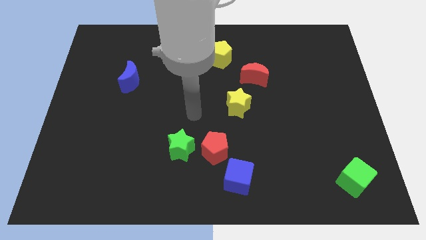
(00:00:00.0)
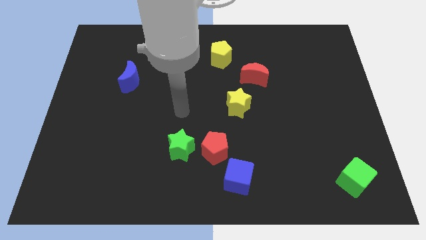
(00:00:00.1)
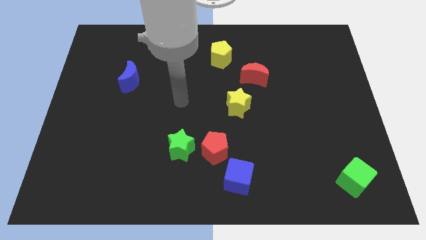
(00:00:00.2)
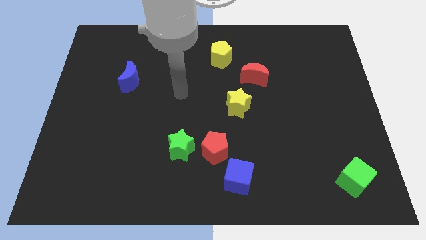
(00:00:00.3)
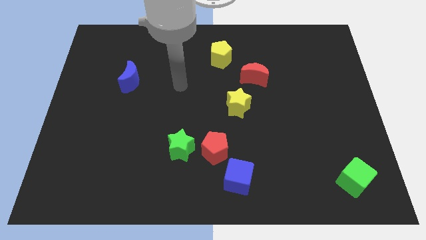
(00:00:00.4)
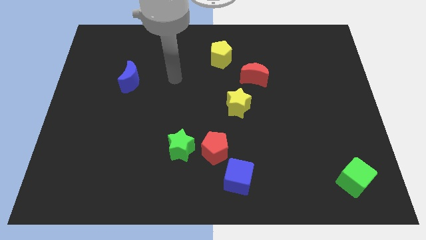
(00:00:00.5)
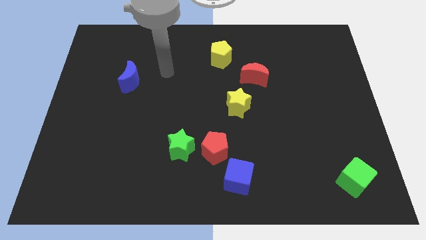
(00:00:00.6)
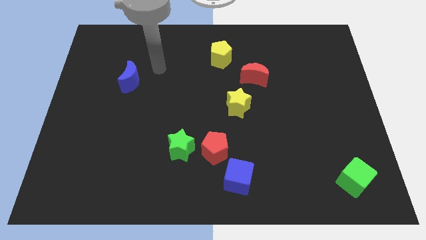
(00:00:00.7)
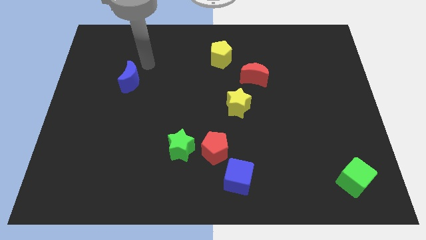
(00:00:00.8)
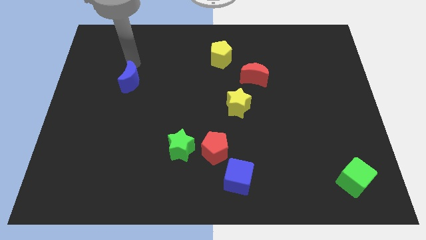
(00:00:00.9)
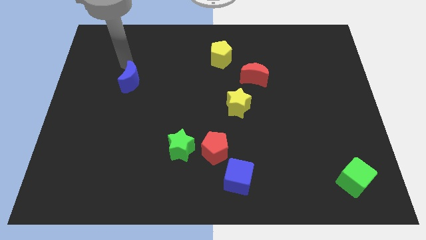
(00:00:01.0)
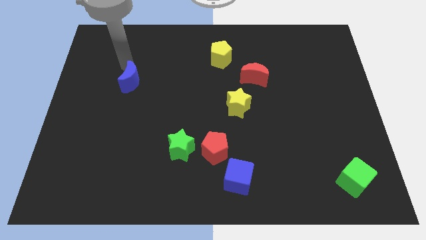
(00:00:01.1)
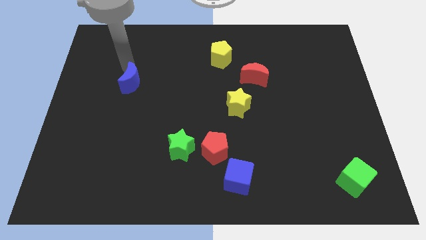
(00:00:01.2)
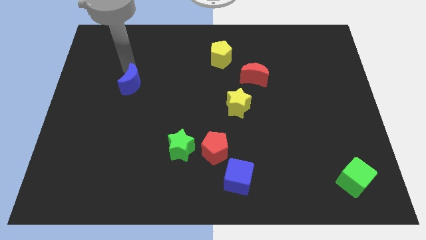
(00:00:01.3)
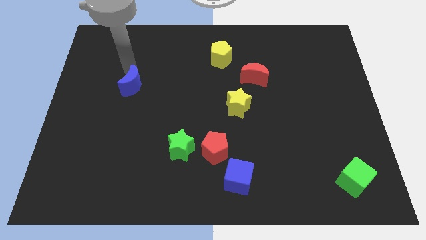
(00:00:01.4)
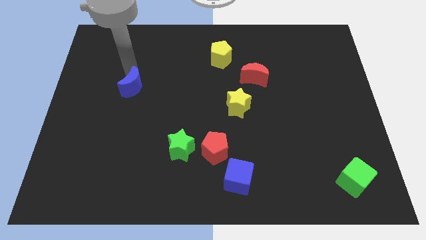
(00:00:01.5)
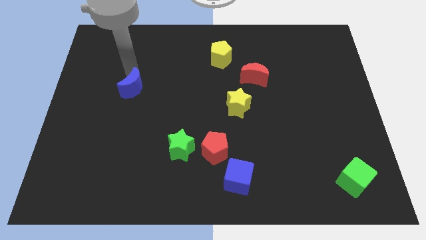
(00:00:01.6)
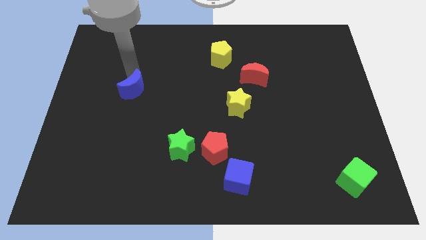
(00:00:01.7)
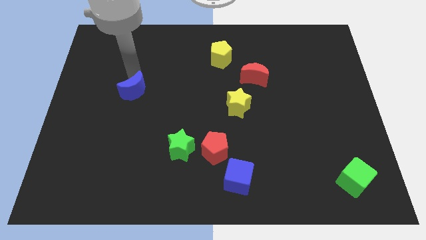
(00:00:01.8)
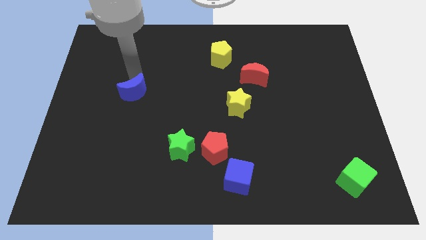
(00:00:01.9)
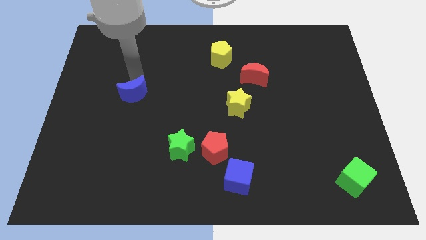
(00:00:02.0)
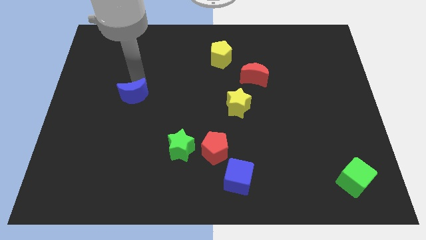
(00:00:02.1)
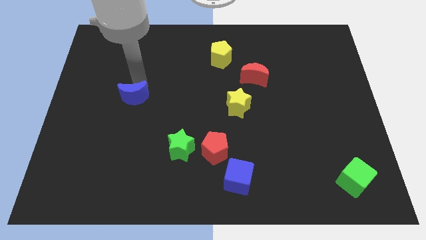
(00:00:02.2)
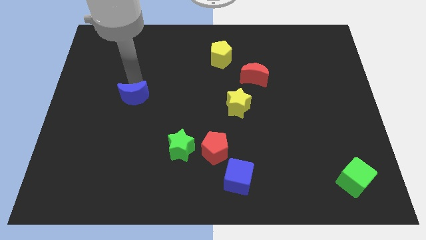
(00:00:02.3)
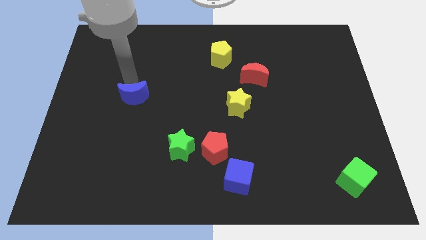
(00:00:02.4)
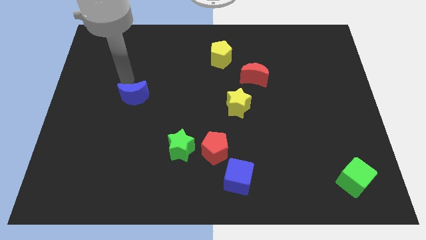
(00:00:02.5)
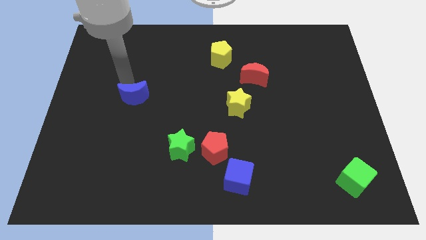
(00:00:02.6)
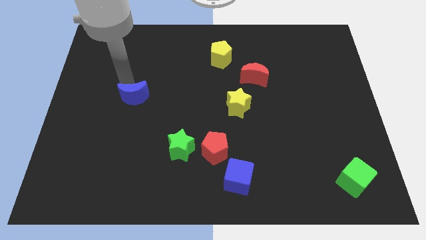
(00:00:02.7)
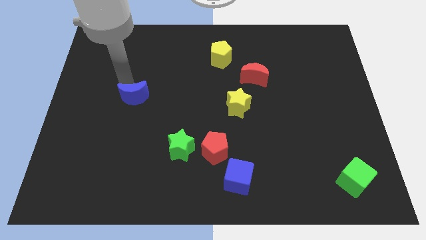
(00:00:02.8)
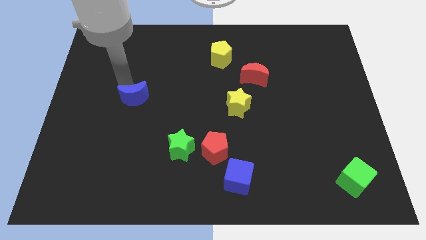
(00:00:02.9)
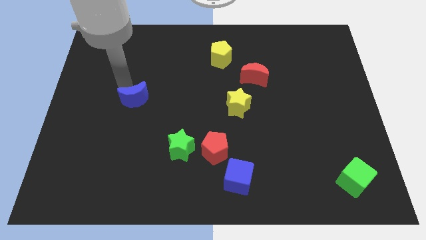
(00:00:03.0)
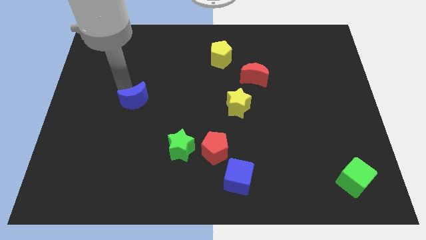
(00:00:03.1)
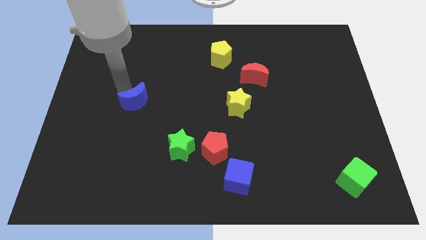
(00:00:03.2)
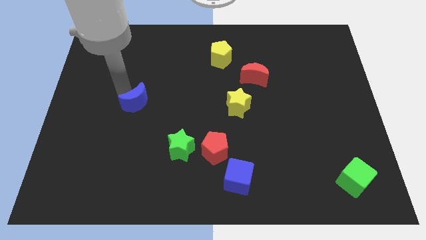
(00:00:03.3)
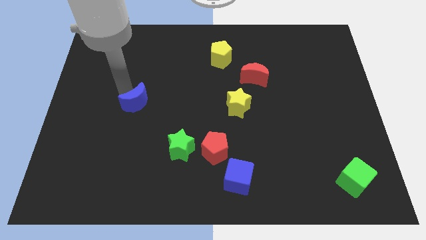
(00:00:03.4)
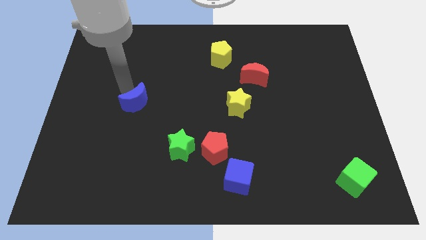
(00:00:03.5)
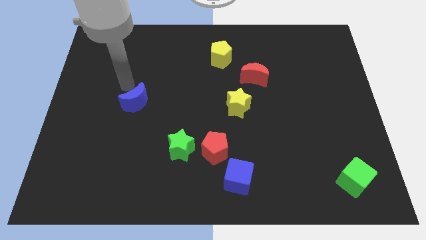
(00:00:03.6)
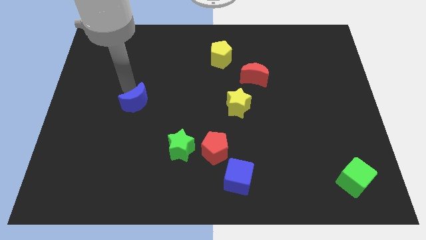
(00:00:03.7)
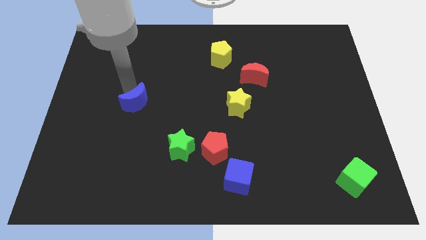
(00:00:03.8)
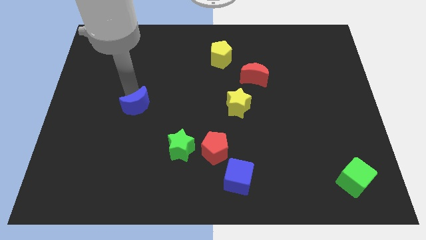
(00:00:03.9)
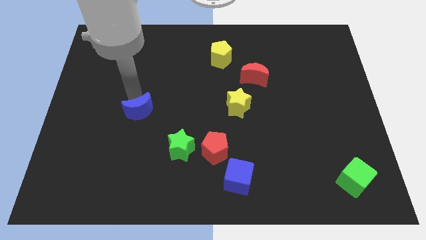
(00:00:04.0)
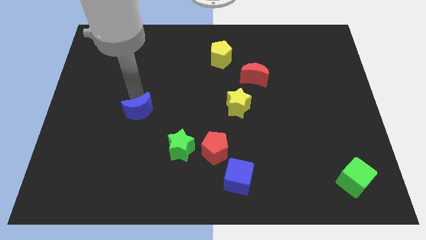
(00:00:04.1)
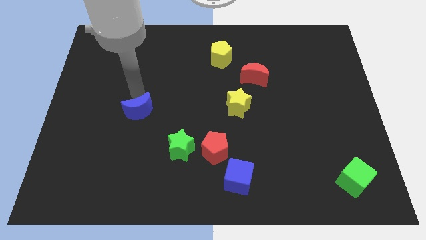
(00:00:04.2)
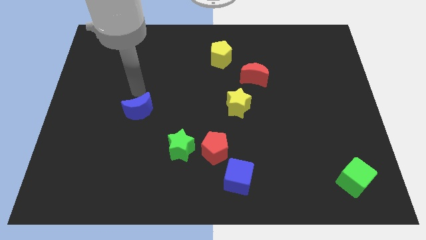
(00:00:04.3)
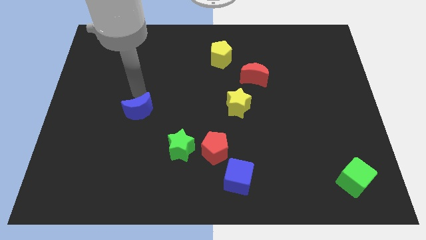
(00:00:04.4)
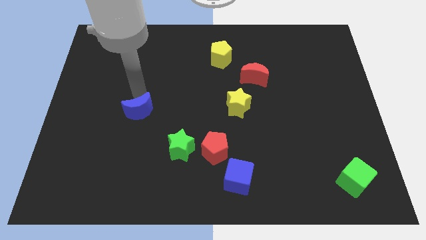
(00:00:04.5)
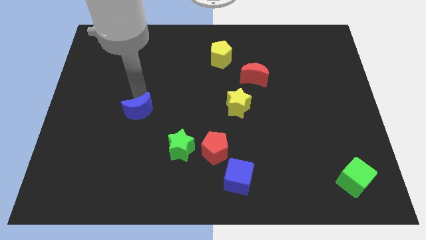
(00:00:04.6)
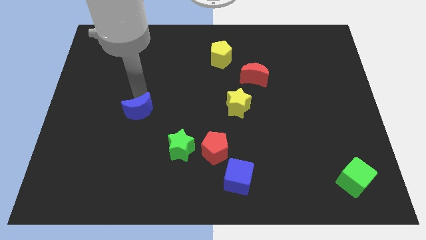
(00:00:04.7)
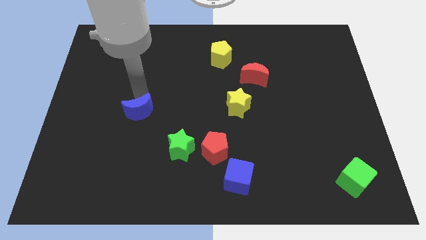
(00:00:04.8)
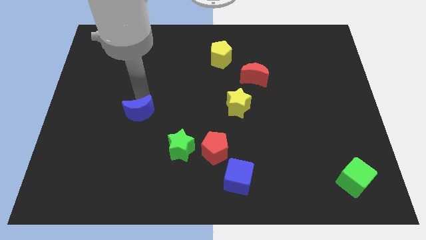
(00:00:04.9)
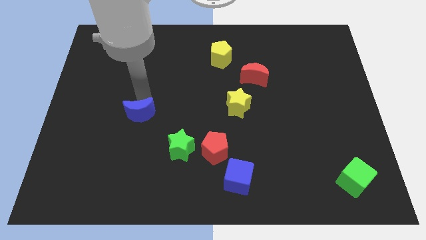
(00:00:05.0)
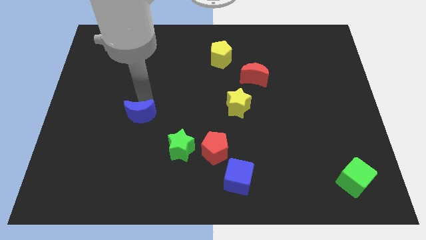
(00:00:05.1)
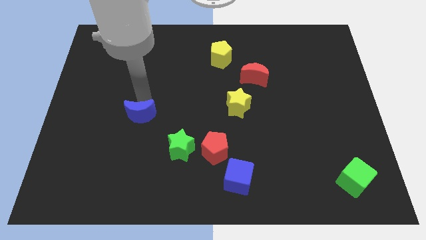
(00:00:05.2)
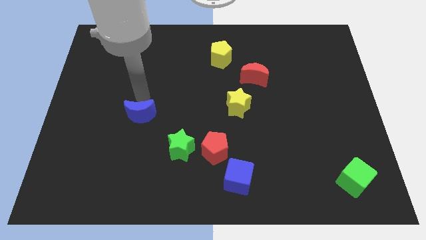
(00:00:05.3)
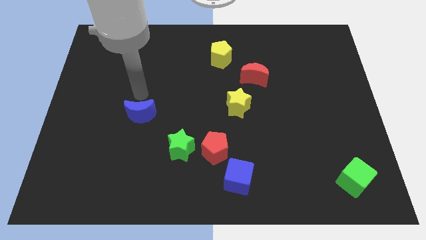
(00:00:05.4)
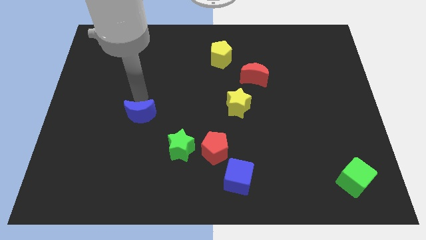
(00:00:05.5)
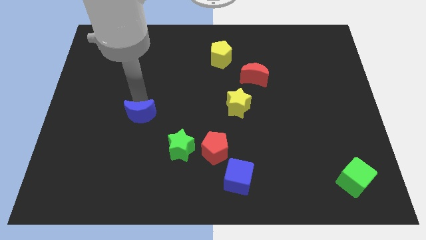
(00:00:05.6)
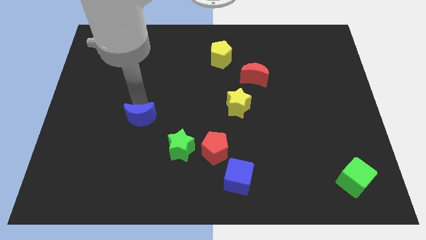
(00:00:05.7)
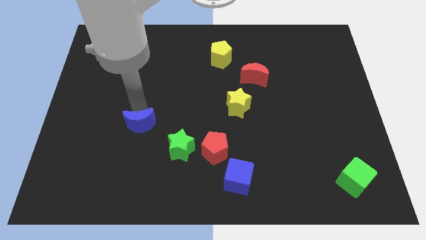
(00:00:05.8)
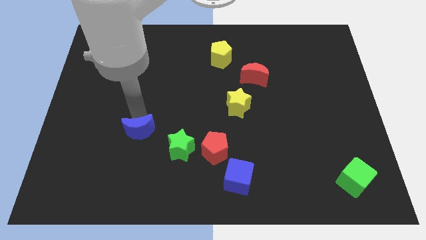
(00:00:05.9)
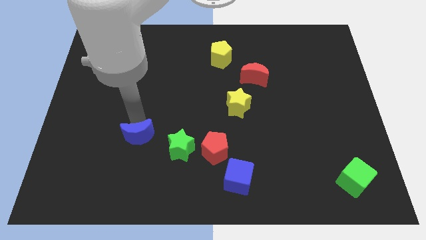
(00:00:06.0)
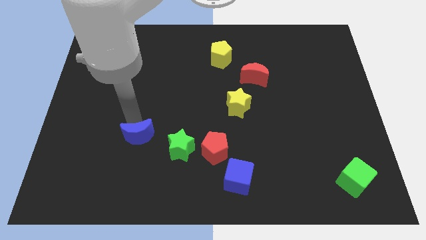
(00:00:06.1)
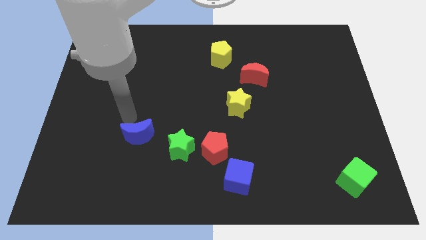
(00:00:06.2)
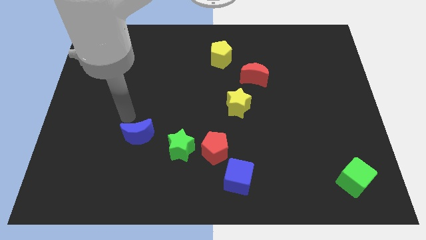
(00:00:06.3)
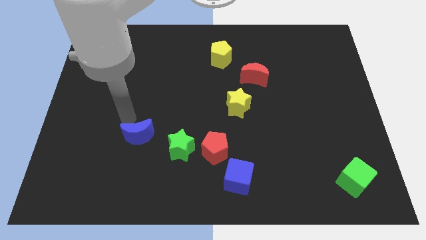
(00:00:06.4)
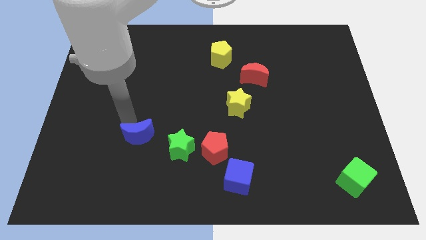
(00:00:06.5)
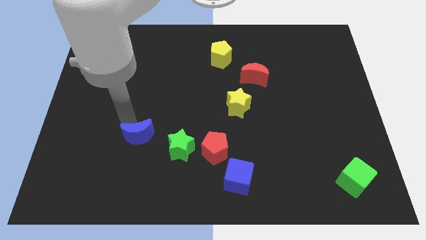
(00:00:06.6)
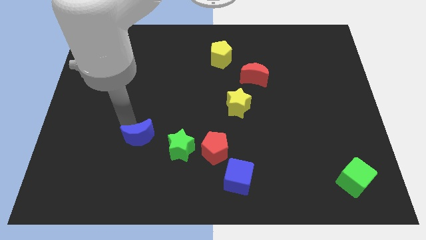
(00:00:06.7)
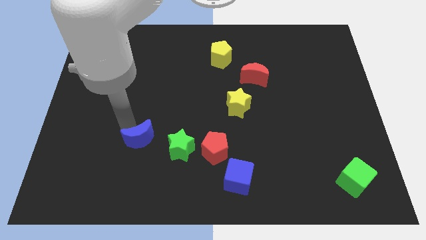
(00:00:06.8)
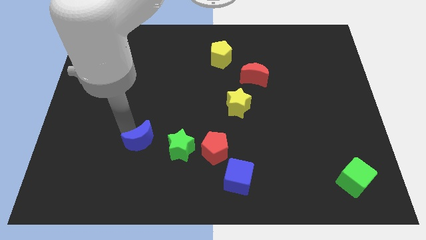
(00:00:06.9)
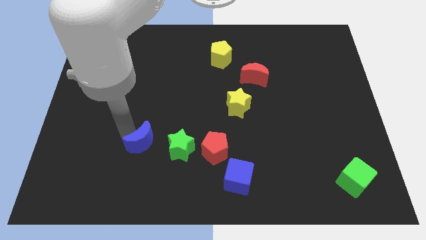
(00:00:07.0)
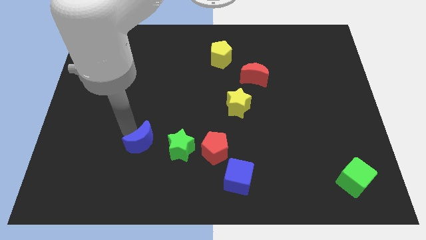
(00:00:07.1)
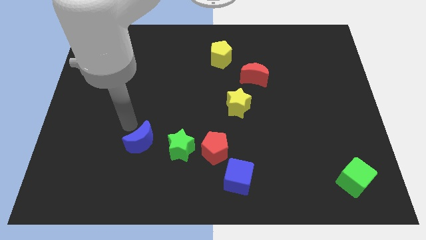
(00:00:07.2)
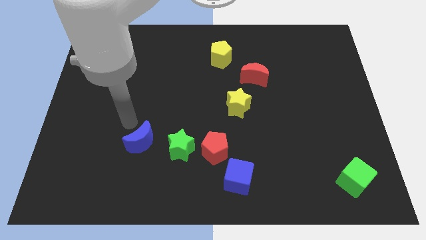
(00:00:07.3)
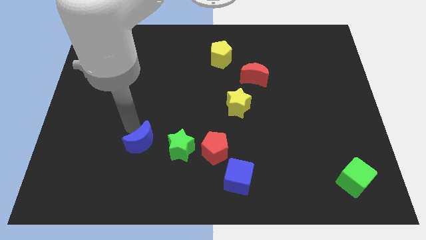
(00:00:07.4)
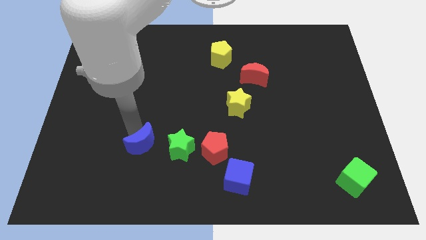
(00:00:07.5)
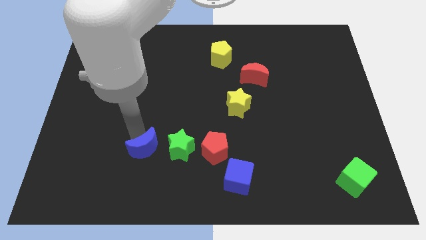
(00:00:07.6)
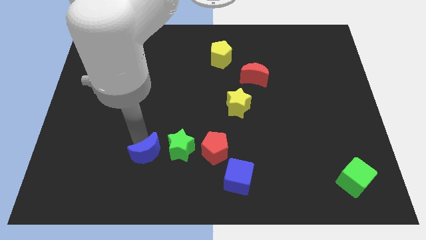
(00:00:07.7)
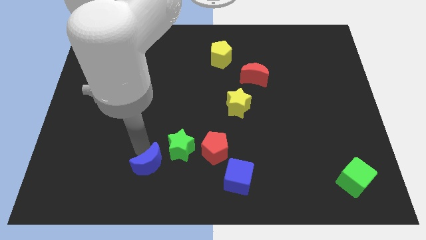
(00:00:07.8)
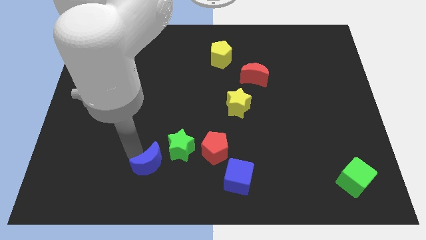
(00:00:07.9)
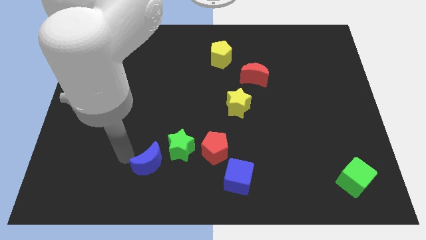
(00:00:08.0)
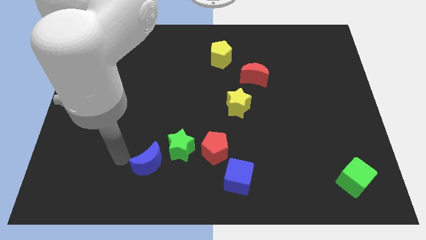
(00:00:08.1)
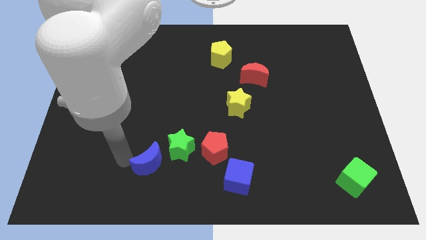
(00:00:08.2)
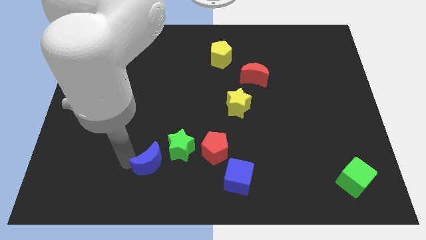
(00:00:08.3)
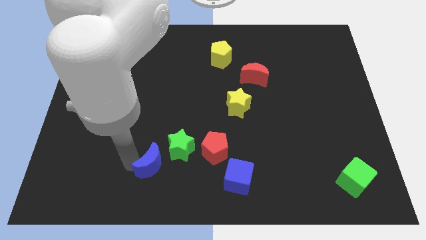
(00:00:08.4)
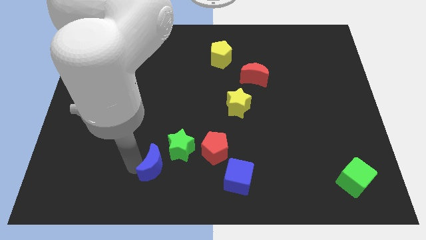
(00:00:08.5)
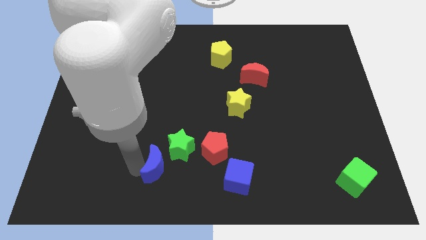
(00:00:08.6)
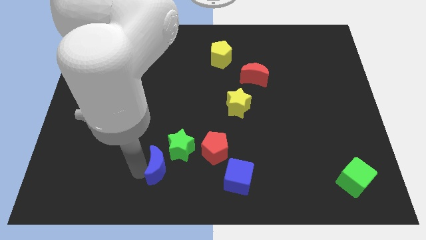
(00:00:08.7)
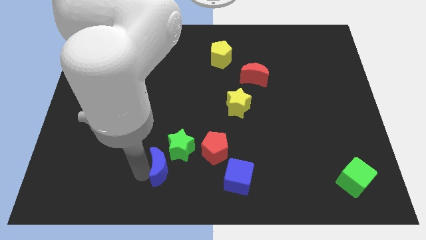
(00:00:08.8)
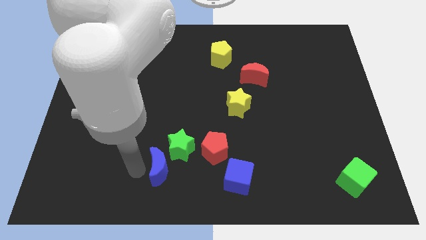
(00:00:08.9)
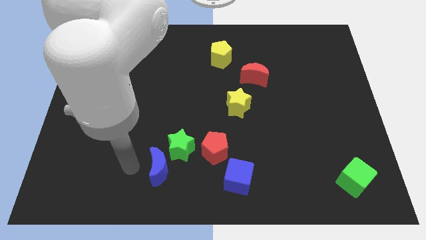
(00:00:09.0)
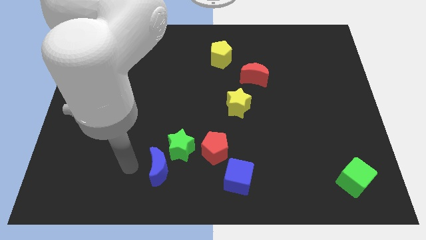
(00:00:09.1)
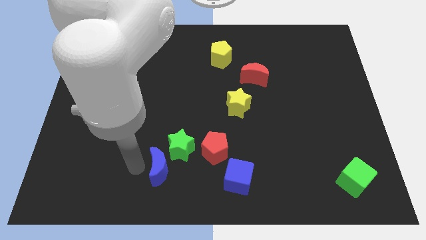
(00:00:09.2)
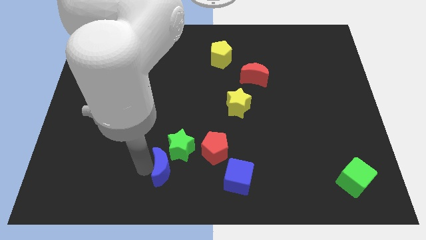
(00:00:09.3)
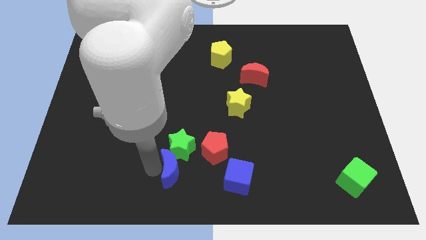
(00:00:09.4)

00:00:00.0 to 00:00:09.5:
push the blue moon to the bottom left side of the red pentagon
